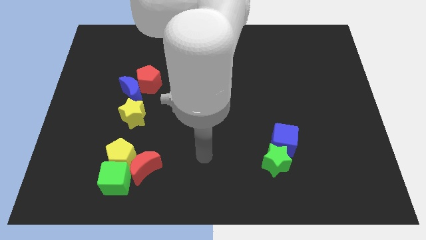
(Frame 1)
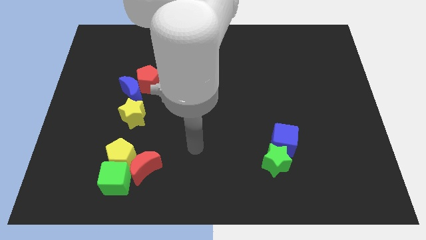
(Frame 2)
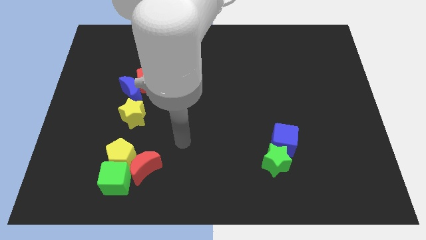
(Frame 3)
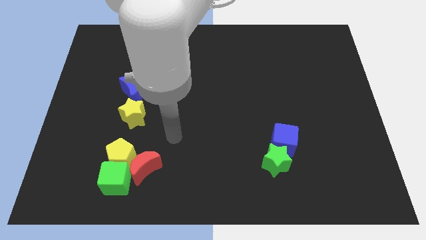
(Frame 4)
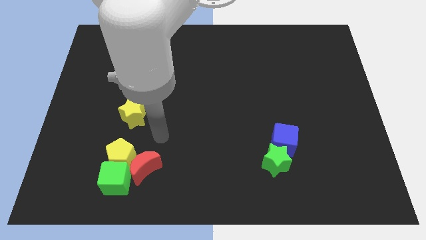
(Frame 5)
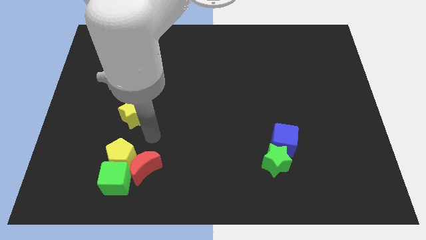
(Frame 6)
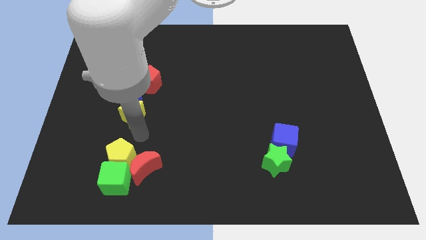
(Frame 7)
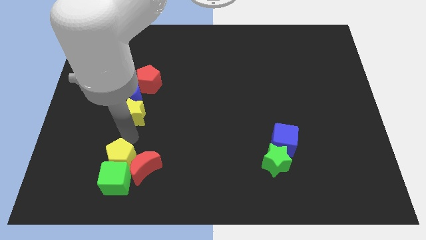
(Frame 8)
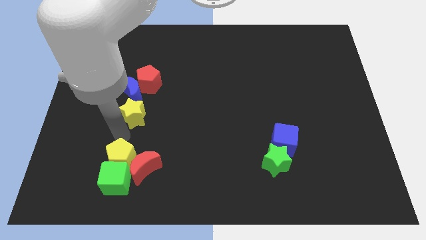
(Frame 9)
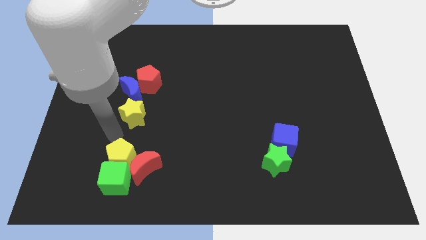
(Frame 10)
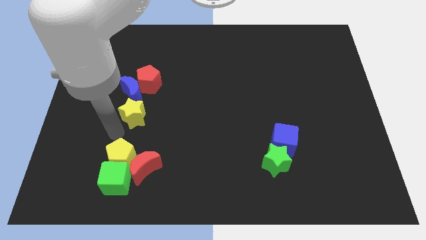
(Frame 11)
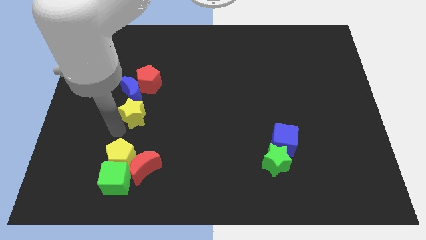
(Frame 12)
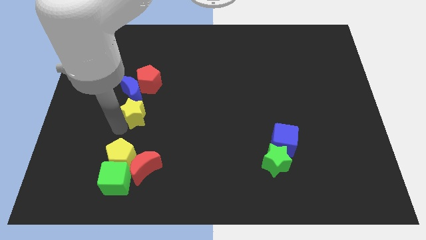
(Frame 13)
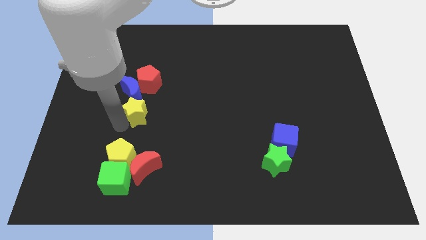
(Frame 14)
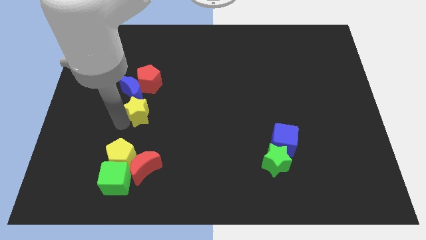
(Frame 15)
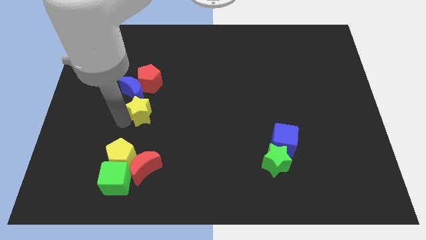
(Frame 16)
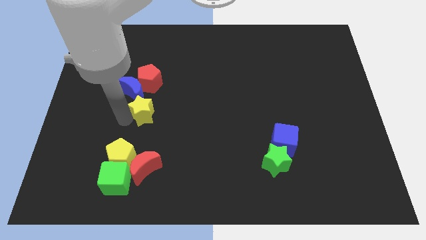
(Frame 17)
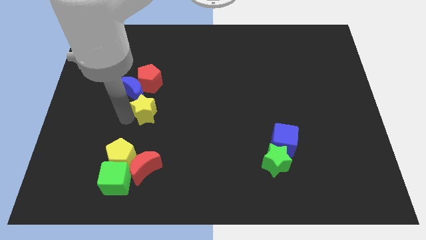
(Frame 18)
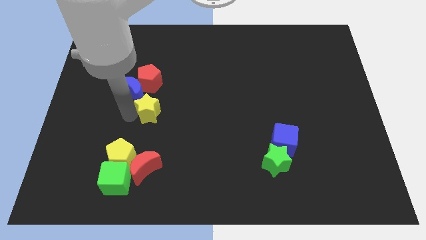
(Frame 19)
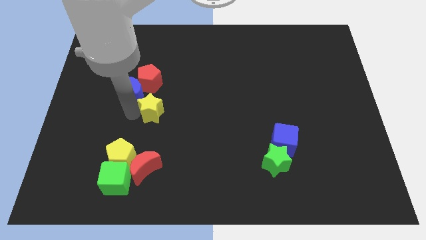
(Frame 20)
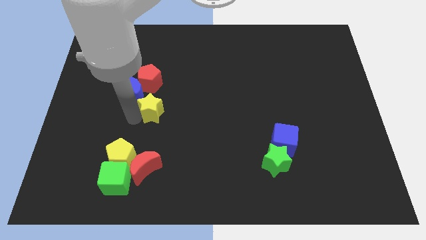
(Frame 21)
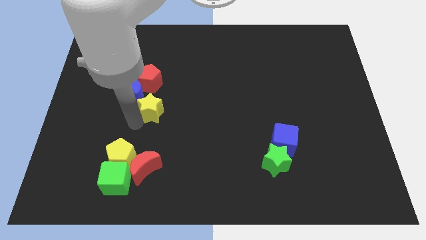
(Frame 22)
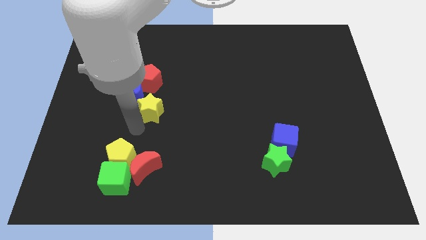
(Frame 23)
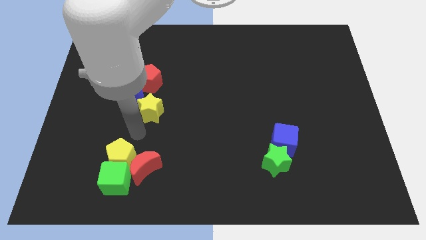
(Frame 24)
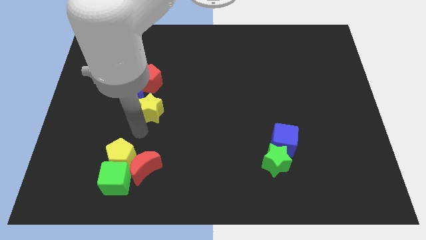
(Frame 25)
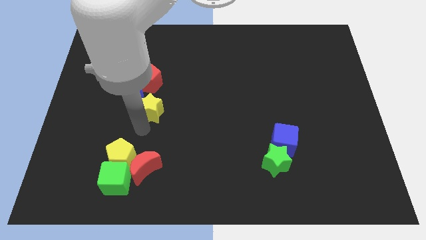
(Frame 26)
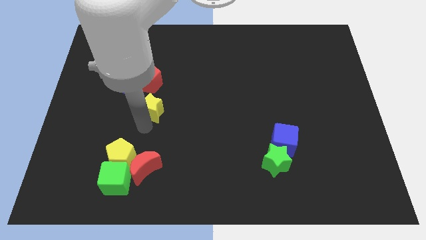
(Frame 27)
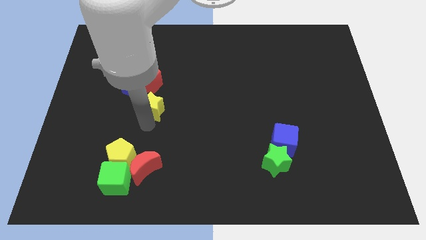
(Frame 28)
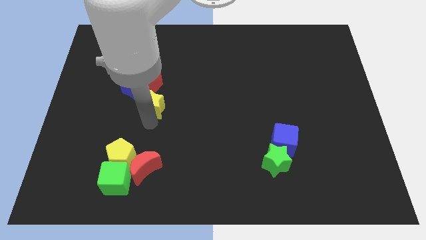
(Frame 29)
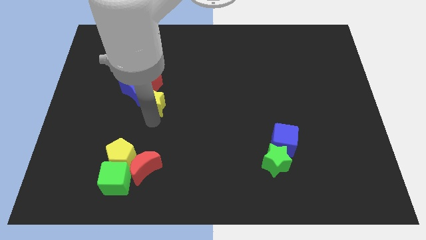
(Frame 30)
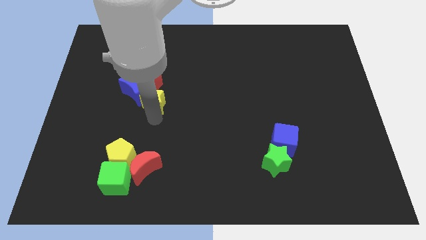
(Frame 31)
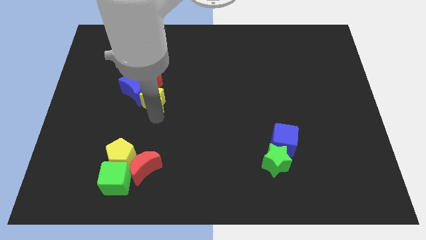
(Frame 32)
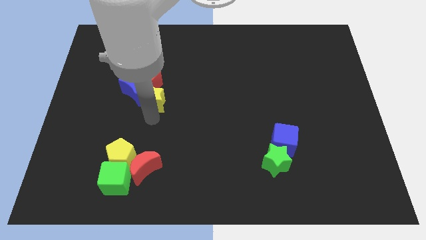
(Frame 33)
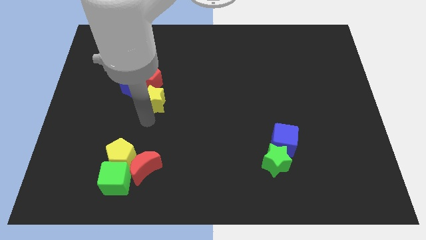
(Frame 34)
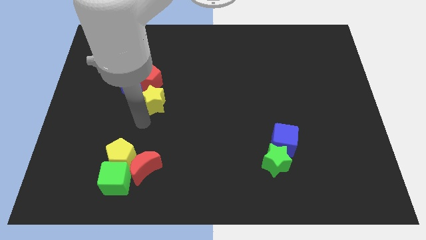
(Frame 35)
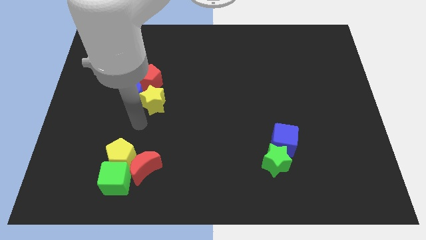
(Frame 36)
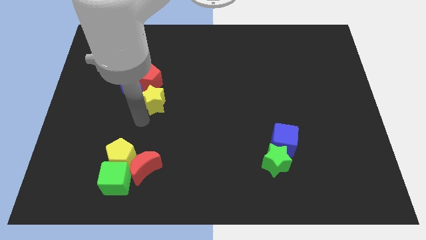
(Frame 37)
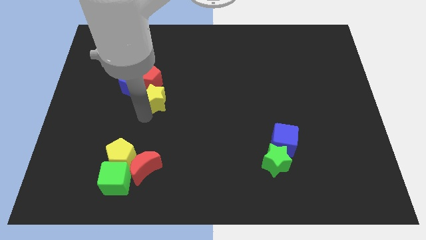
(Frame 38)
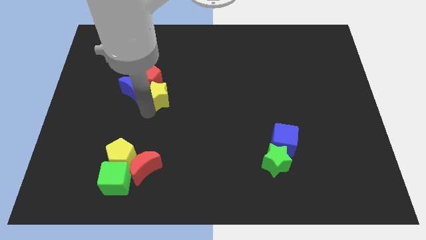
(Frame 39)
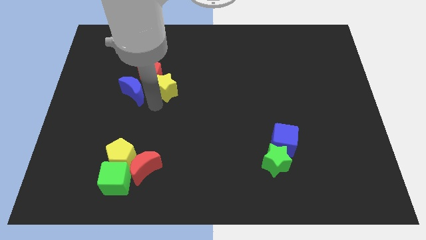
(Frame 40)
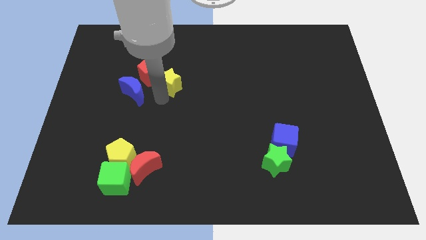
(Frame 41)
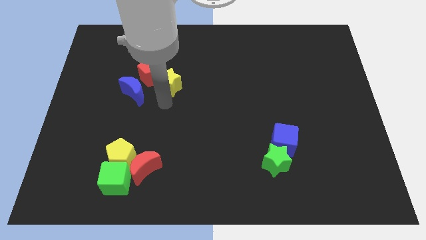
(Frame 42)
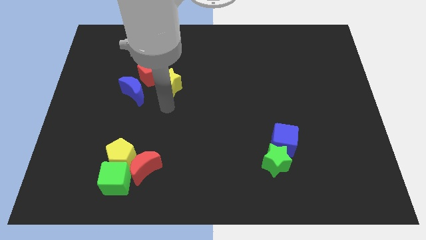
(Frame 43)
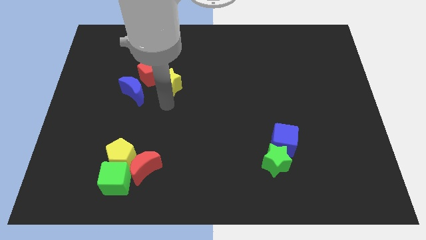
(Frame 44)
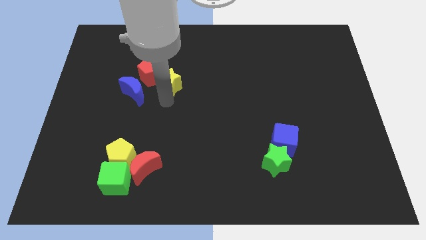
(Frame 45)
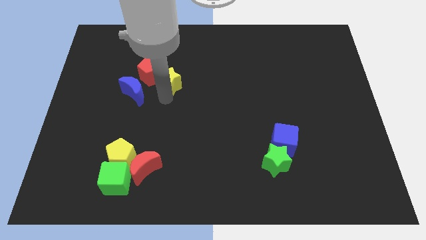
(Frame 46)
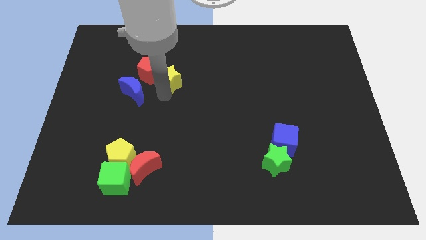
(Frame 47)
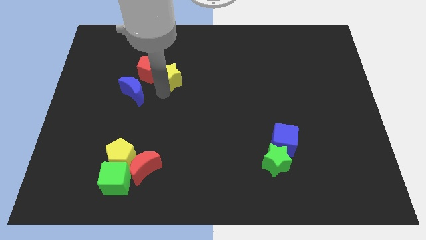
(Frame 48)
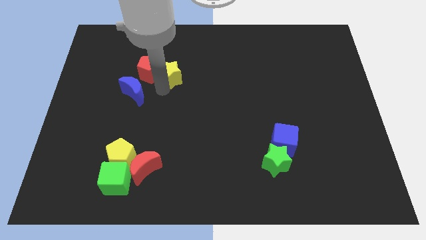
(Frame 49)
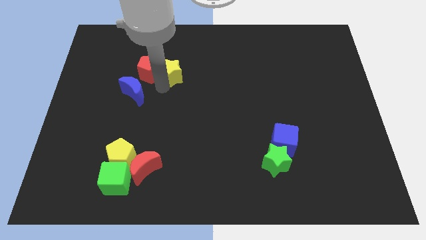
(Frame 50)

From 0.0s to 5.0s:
push the yellow star to the top right side of the red pentagon

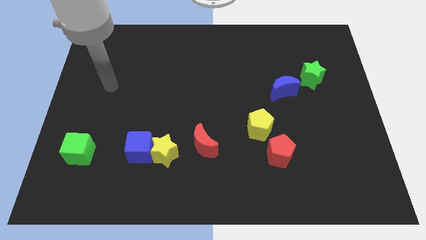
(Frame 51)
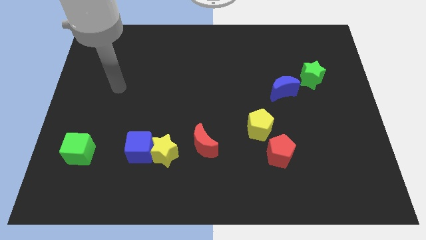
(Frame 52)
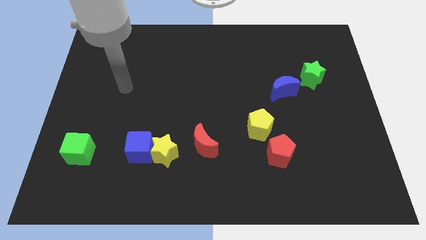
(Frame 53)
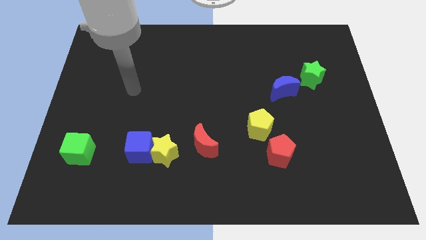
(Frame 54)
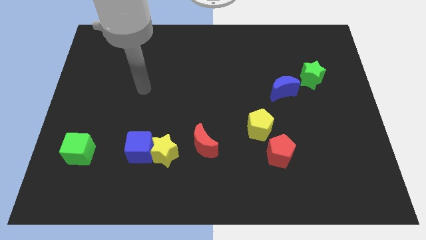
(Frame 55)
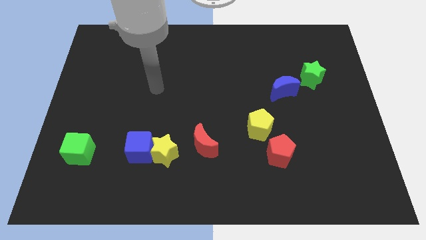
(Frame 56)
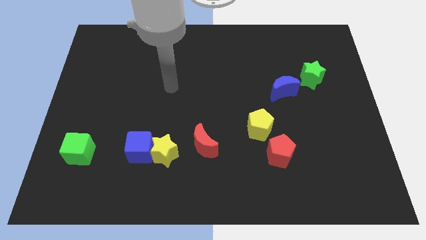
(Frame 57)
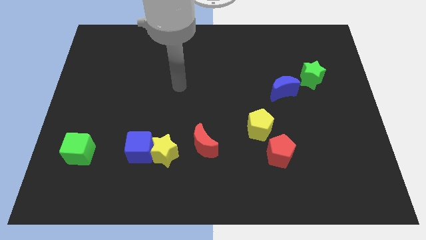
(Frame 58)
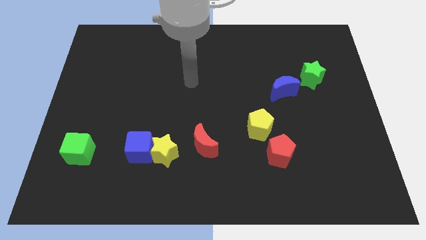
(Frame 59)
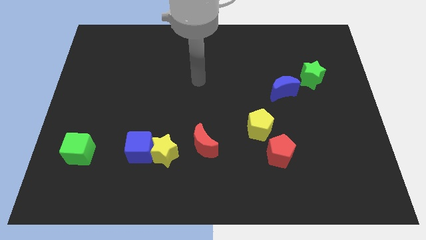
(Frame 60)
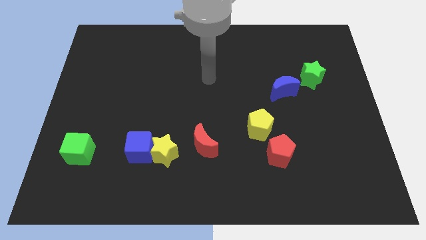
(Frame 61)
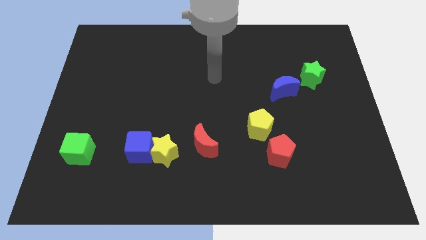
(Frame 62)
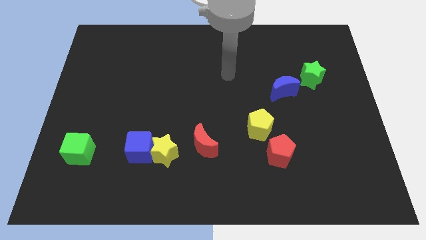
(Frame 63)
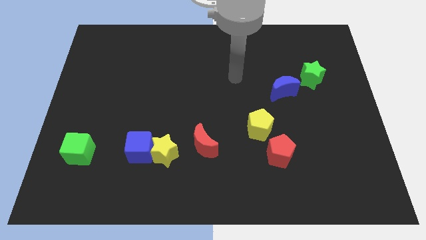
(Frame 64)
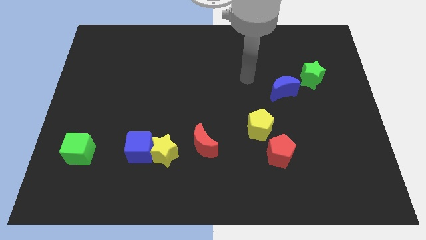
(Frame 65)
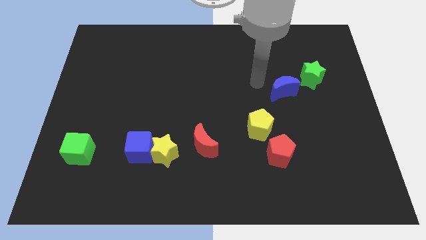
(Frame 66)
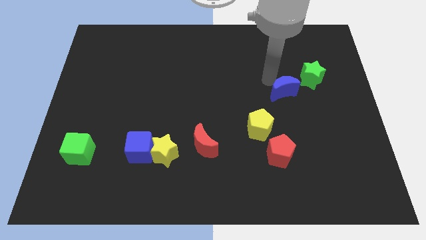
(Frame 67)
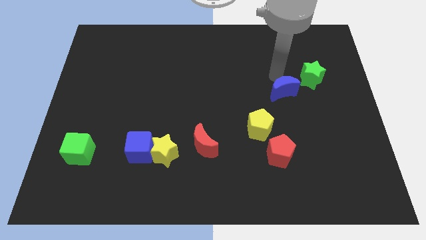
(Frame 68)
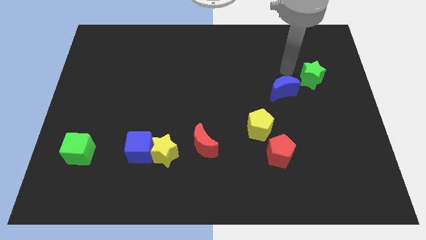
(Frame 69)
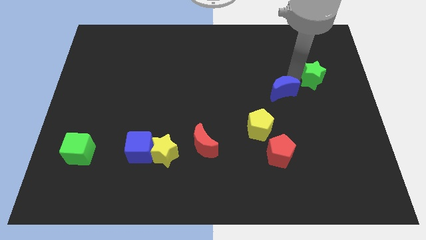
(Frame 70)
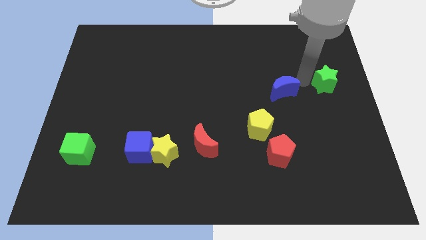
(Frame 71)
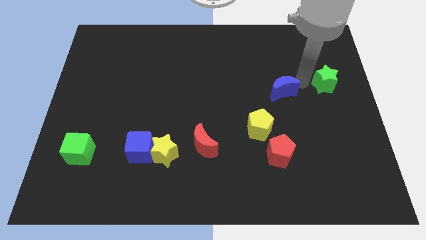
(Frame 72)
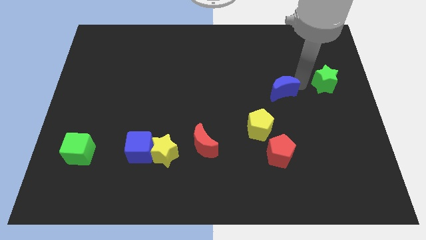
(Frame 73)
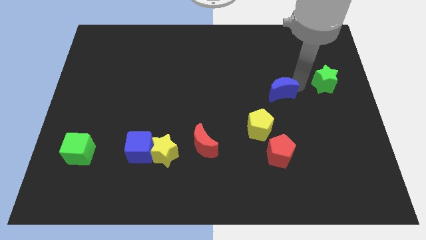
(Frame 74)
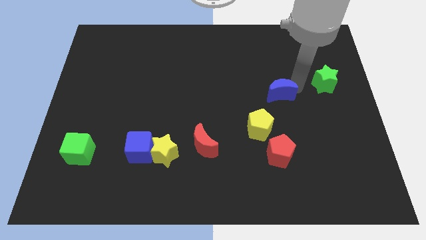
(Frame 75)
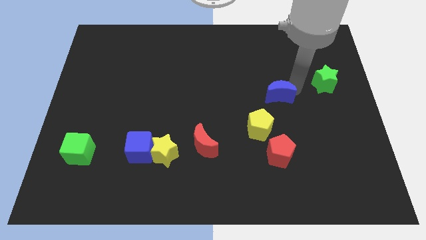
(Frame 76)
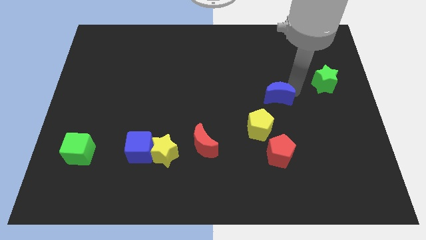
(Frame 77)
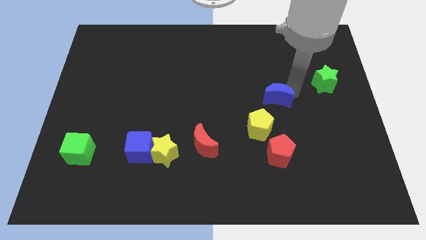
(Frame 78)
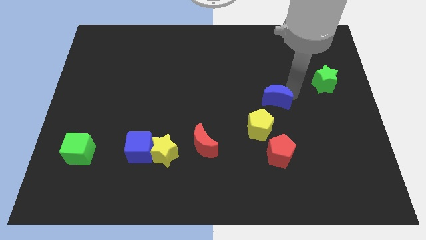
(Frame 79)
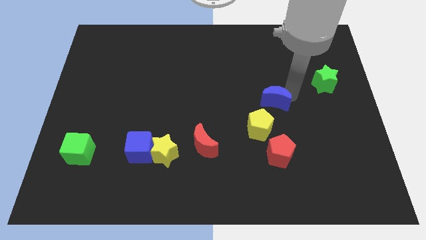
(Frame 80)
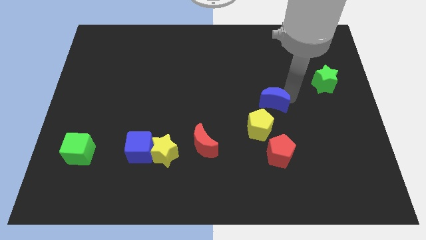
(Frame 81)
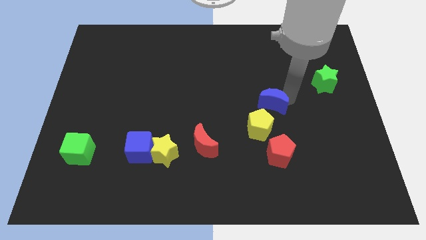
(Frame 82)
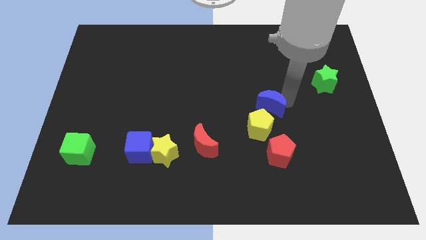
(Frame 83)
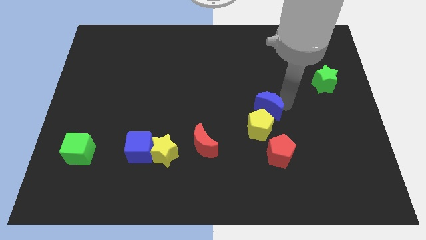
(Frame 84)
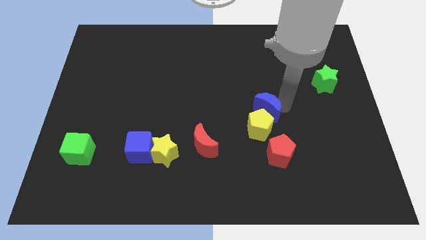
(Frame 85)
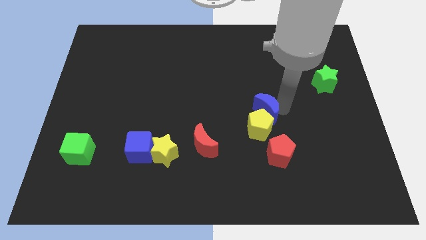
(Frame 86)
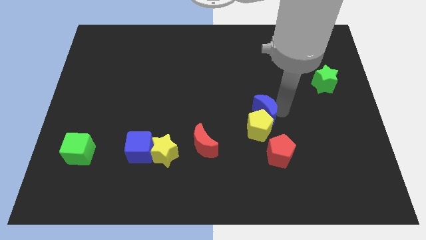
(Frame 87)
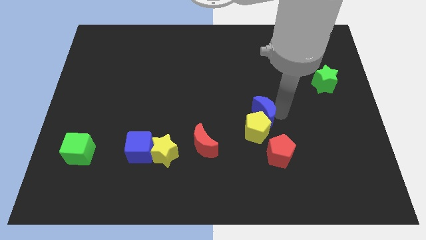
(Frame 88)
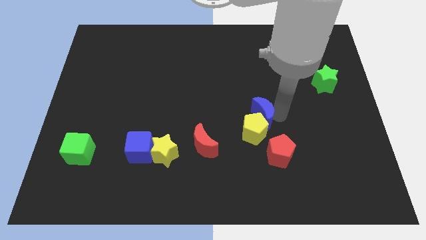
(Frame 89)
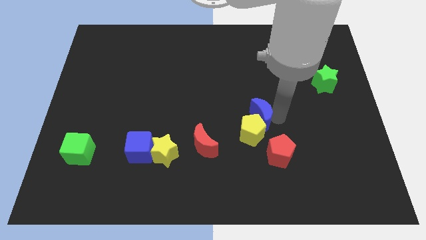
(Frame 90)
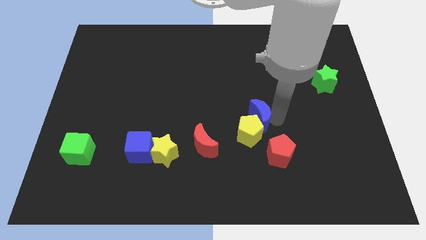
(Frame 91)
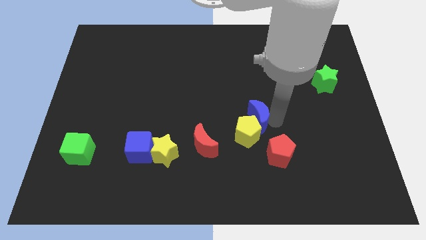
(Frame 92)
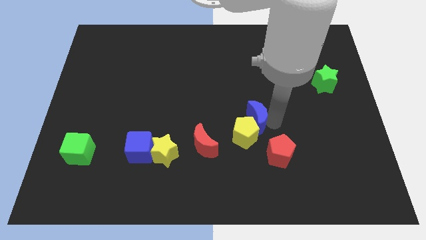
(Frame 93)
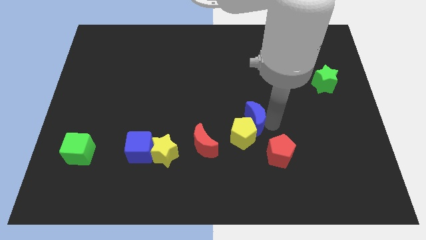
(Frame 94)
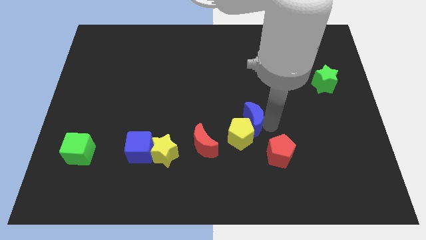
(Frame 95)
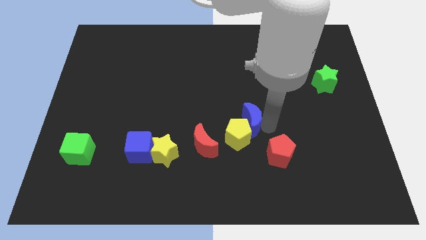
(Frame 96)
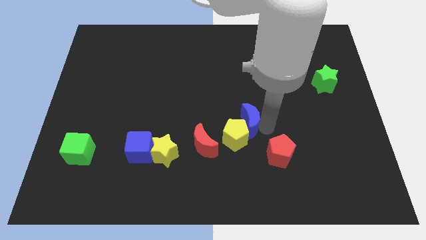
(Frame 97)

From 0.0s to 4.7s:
push the blue moon to the top right side of the red moon
